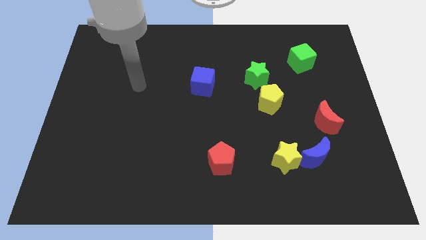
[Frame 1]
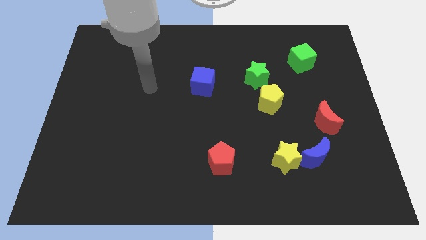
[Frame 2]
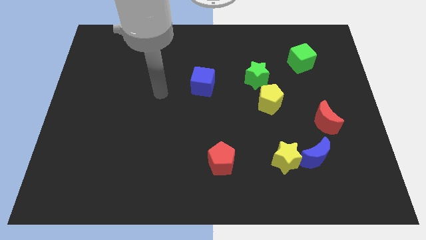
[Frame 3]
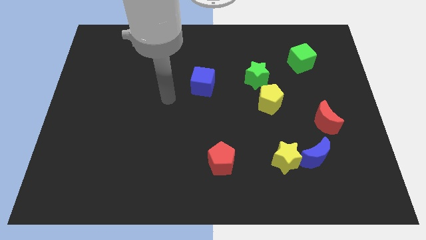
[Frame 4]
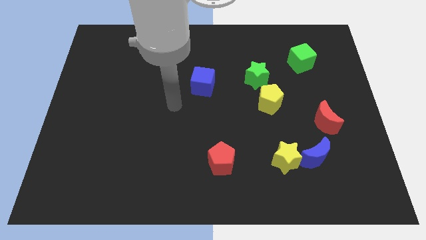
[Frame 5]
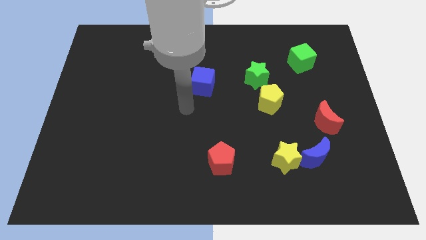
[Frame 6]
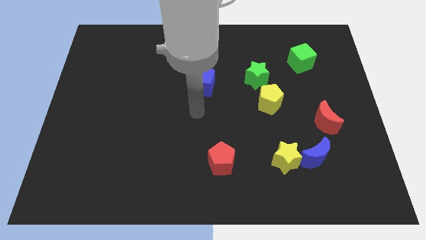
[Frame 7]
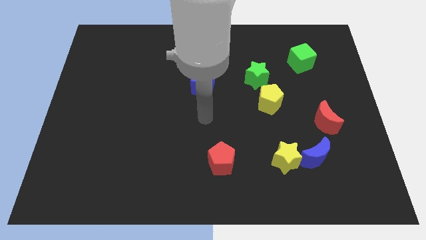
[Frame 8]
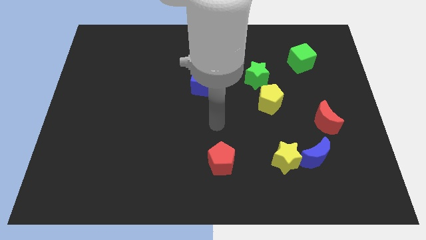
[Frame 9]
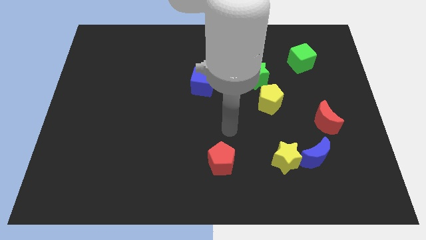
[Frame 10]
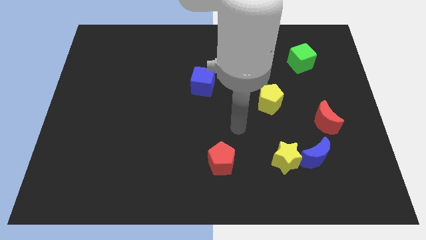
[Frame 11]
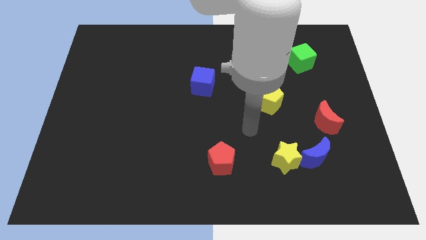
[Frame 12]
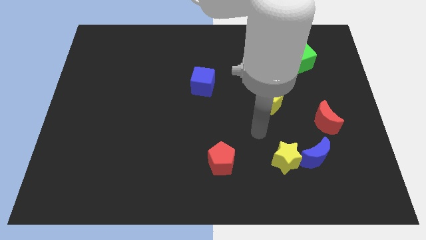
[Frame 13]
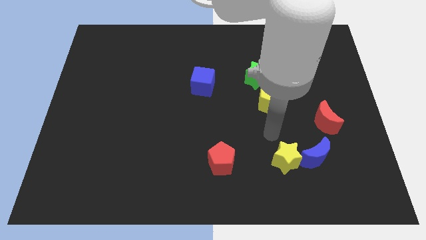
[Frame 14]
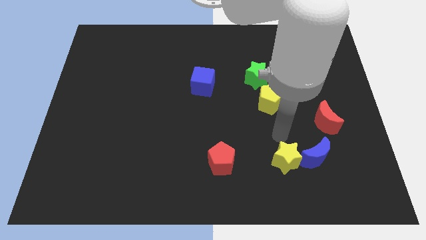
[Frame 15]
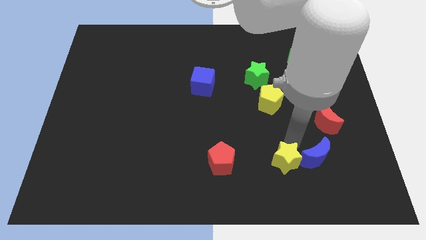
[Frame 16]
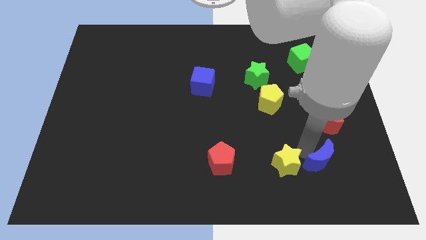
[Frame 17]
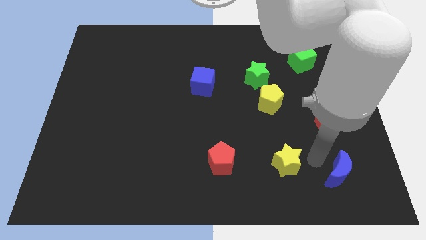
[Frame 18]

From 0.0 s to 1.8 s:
move the yellow star away from the blue moon

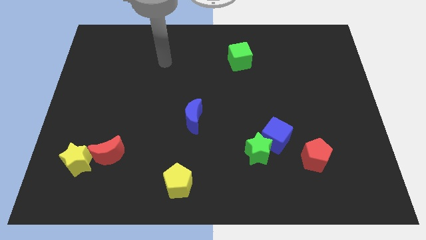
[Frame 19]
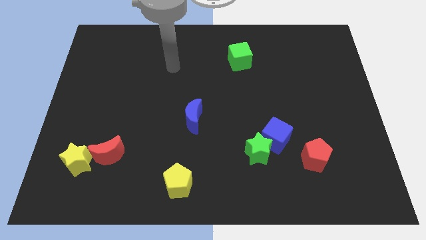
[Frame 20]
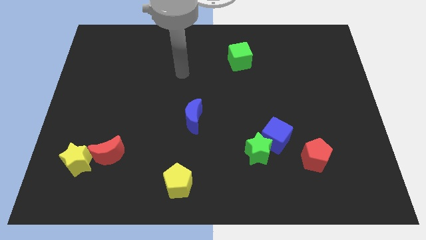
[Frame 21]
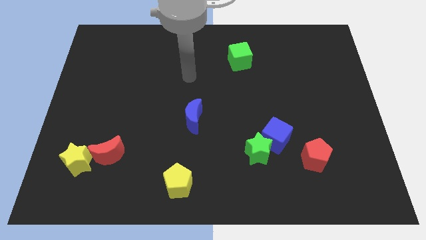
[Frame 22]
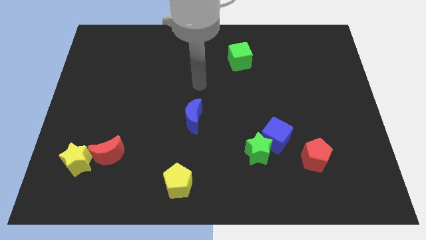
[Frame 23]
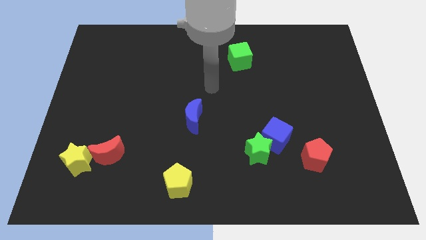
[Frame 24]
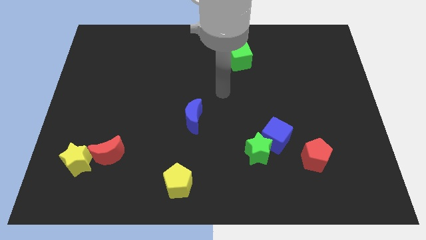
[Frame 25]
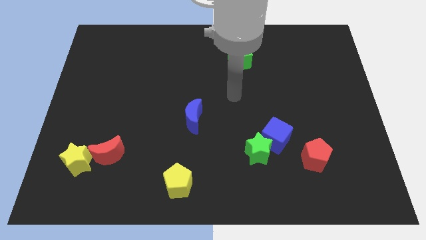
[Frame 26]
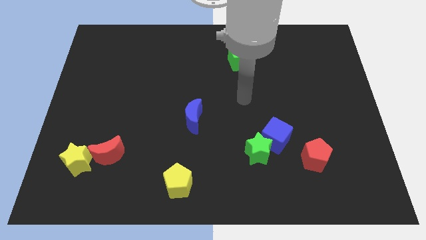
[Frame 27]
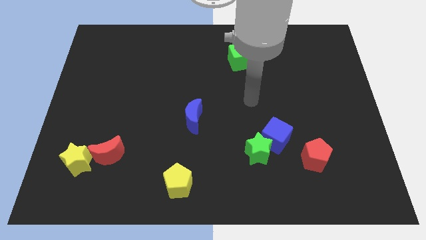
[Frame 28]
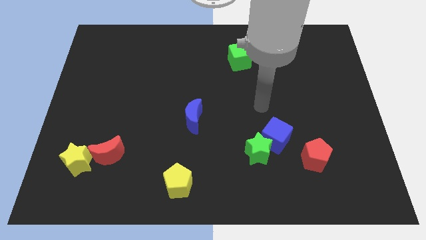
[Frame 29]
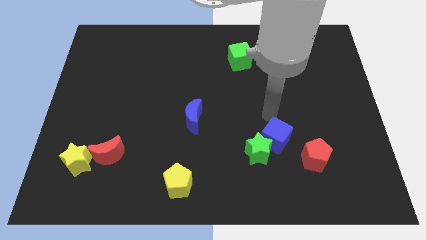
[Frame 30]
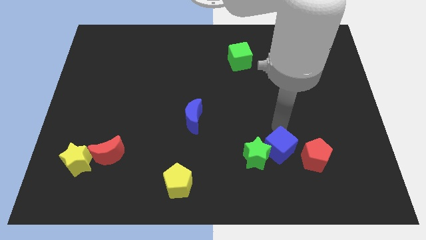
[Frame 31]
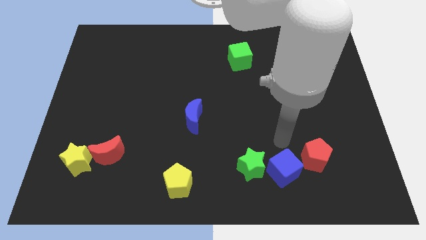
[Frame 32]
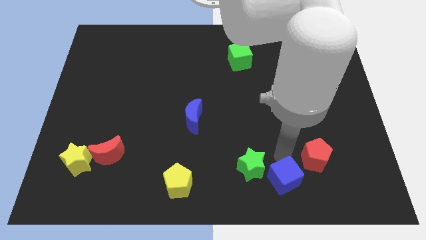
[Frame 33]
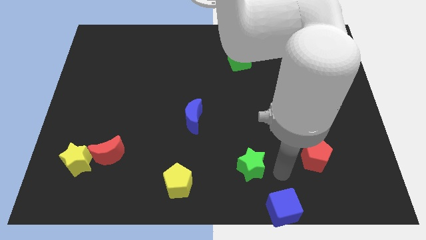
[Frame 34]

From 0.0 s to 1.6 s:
pull the green star apart from the blue cube

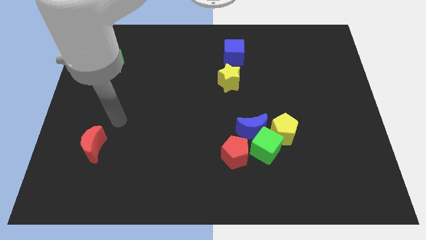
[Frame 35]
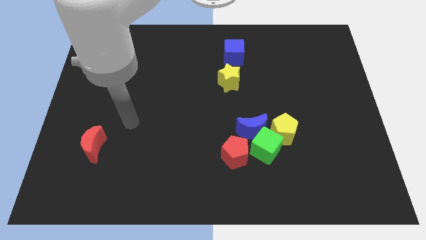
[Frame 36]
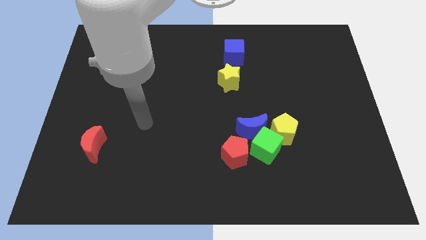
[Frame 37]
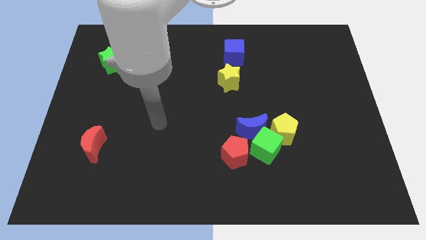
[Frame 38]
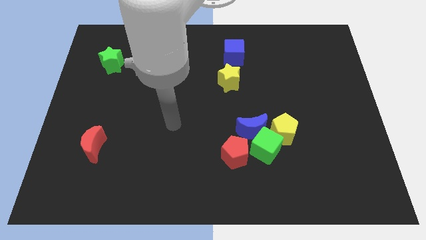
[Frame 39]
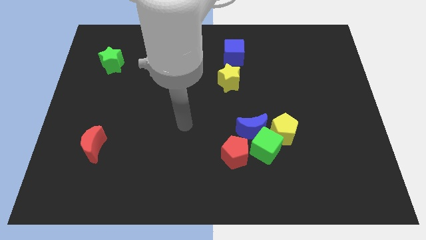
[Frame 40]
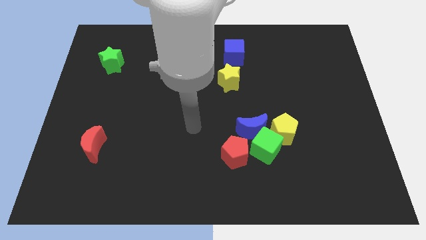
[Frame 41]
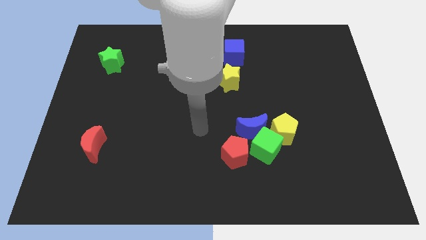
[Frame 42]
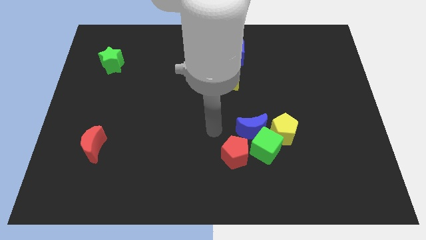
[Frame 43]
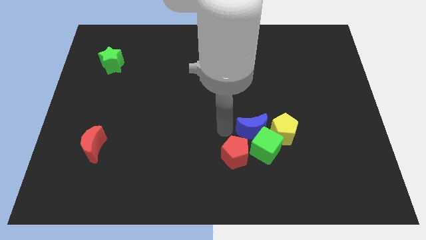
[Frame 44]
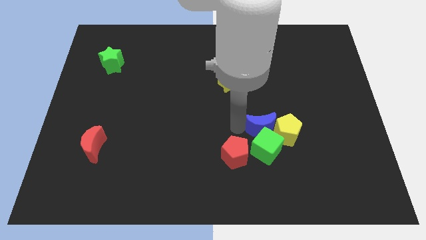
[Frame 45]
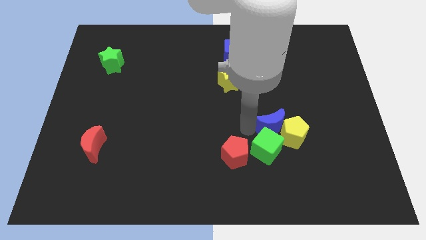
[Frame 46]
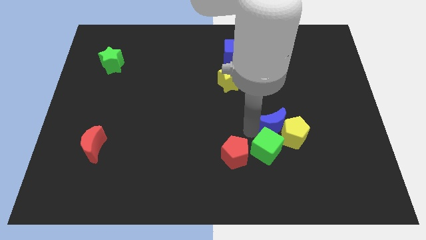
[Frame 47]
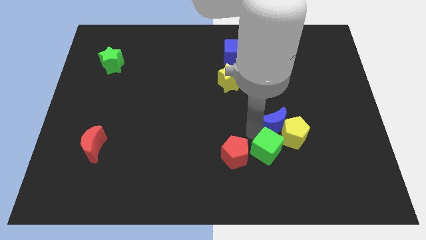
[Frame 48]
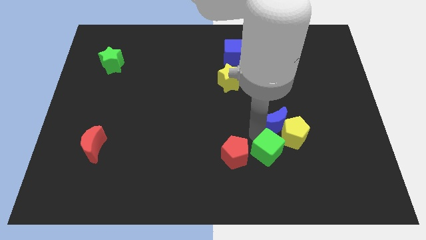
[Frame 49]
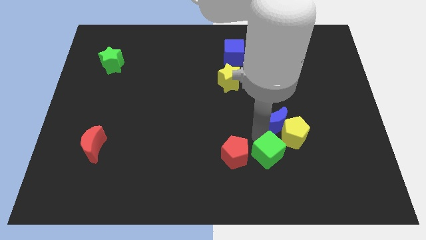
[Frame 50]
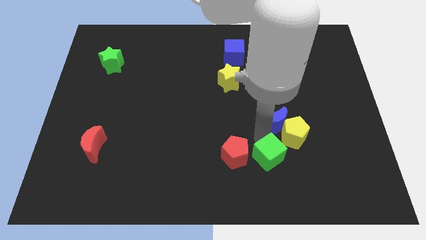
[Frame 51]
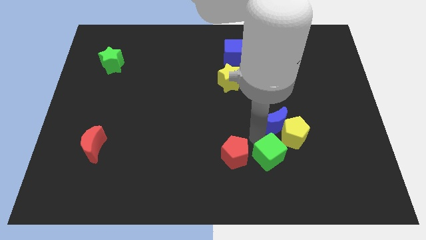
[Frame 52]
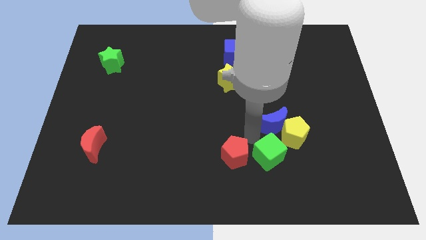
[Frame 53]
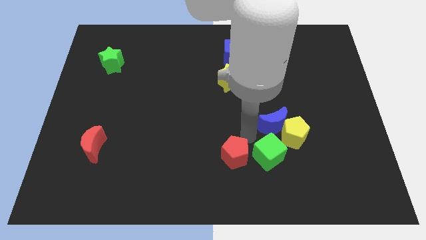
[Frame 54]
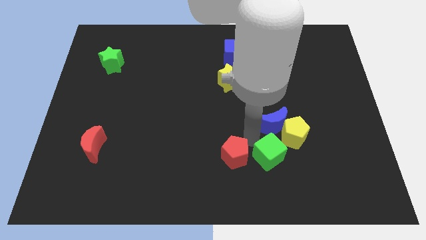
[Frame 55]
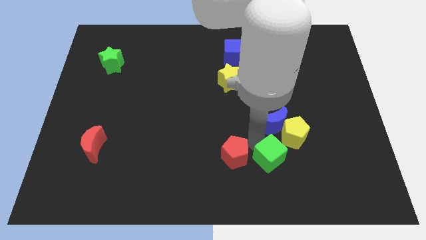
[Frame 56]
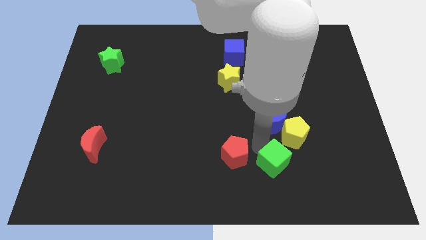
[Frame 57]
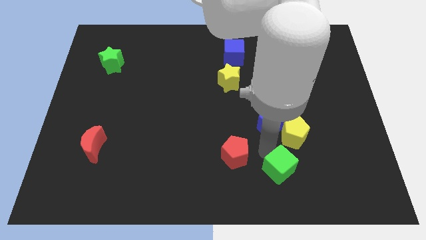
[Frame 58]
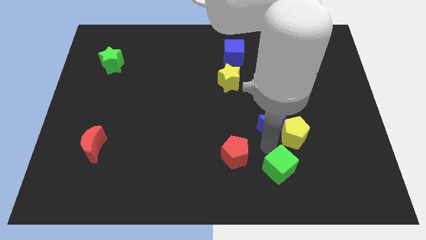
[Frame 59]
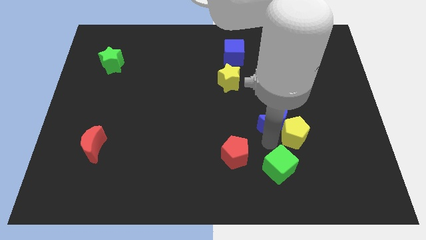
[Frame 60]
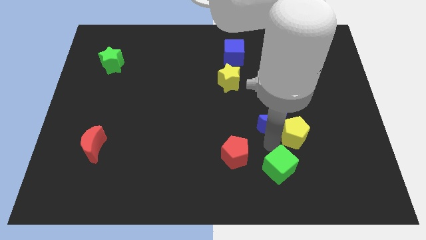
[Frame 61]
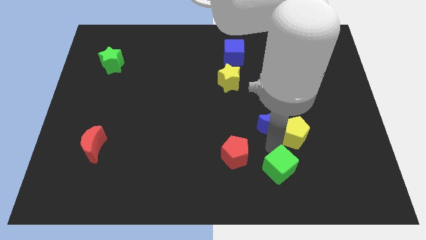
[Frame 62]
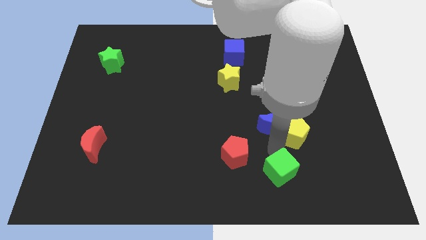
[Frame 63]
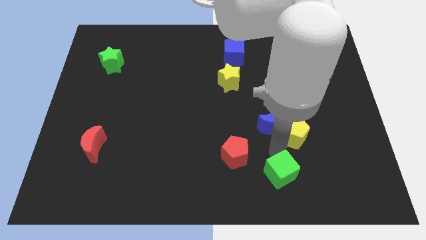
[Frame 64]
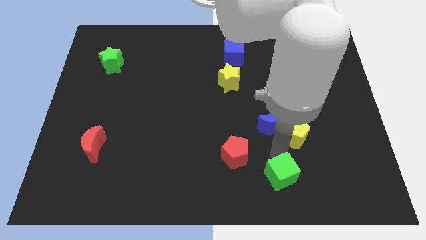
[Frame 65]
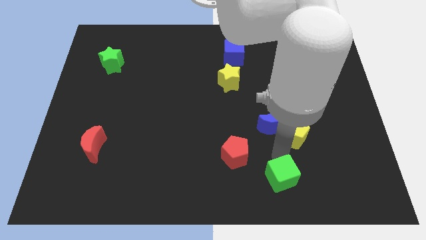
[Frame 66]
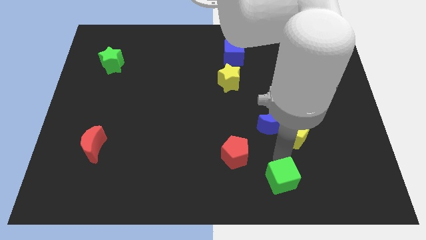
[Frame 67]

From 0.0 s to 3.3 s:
separate the green cube from the blue moon, yellow pentagon, and red pentagon

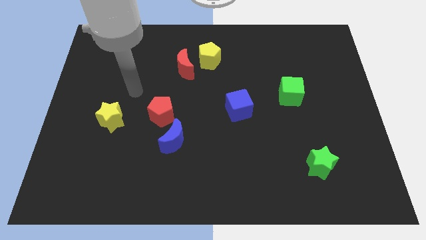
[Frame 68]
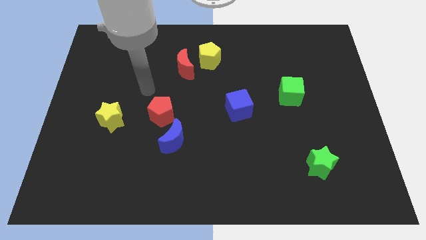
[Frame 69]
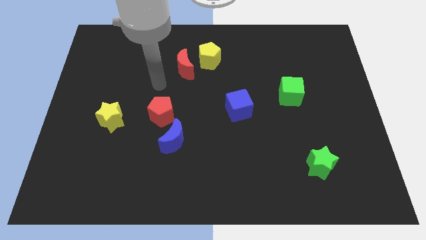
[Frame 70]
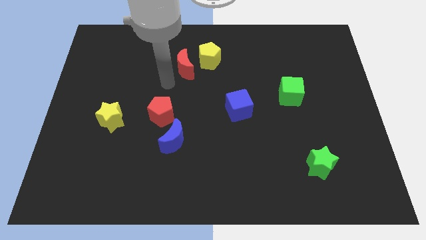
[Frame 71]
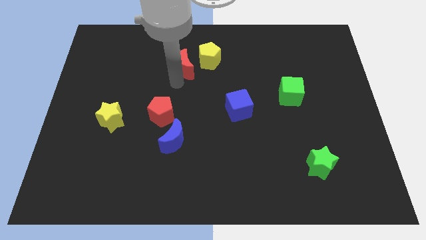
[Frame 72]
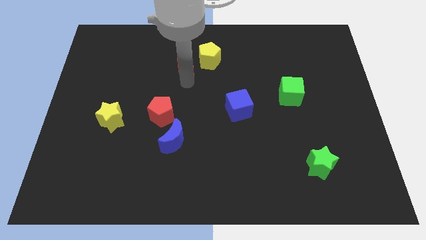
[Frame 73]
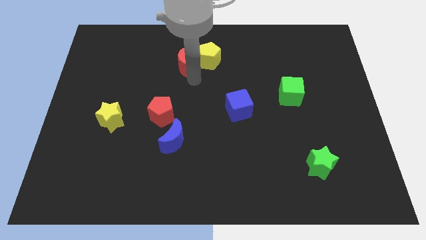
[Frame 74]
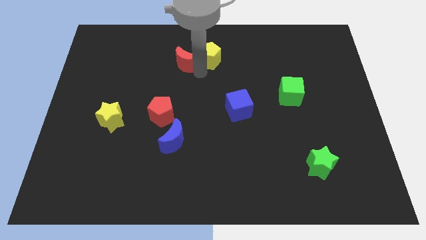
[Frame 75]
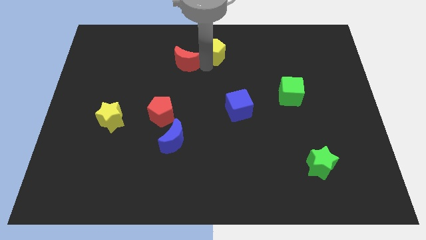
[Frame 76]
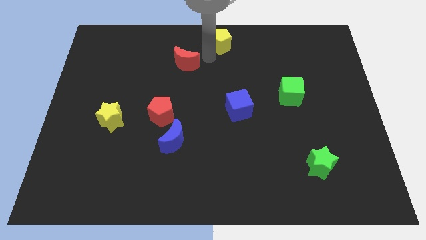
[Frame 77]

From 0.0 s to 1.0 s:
move the red moon away from the yellow pentagon

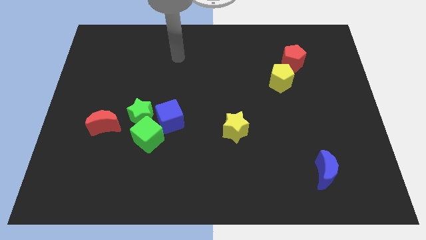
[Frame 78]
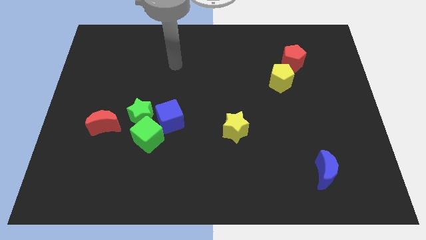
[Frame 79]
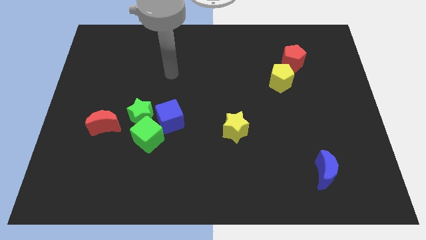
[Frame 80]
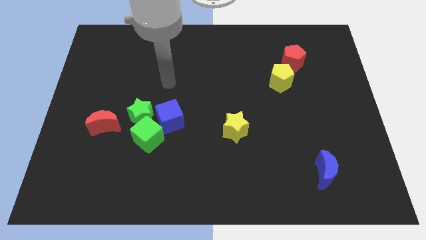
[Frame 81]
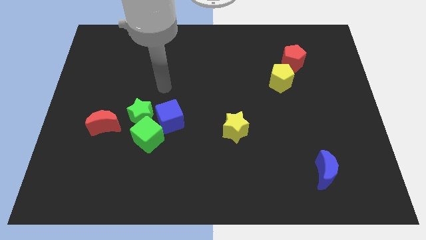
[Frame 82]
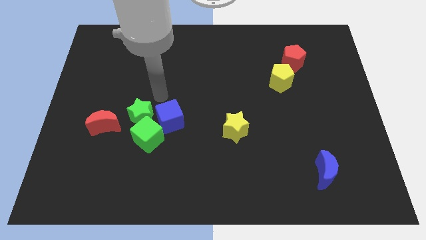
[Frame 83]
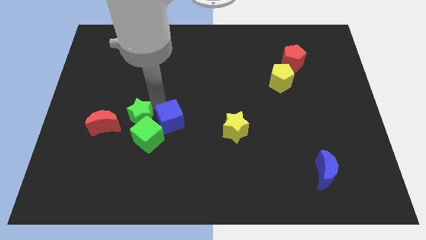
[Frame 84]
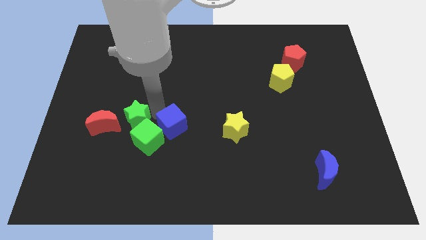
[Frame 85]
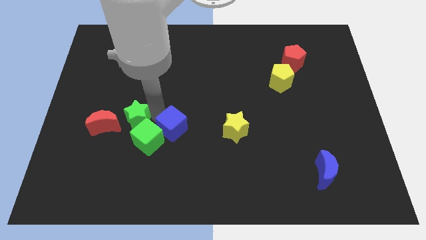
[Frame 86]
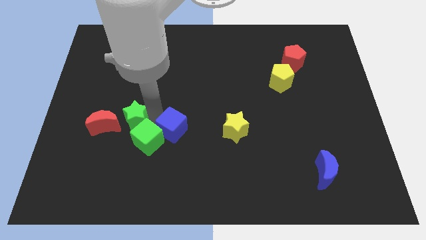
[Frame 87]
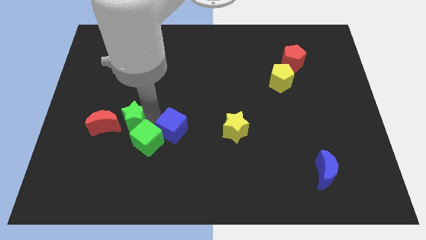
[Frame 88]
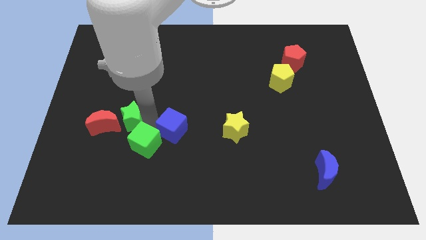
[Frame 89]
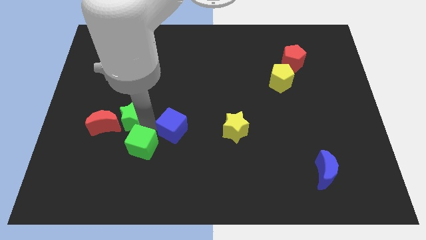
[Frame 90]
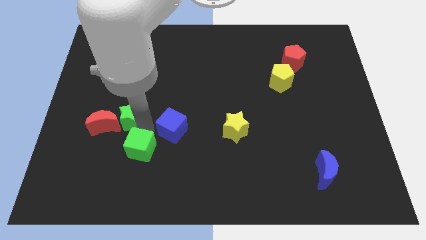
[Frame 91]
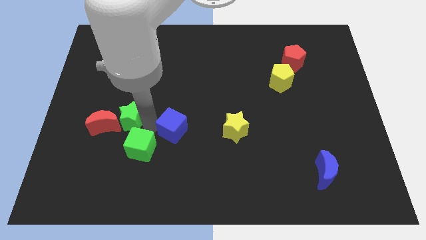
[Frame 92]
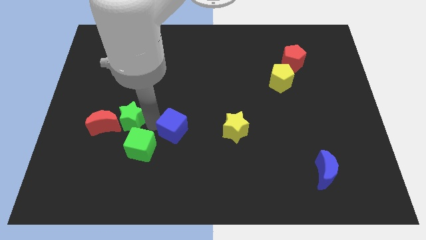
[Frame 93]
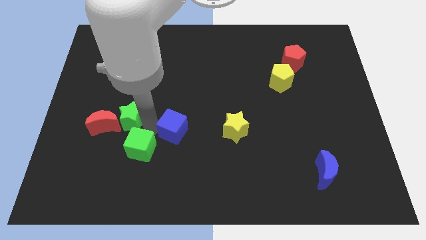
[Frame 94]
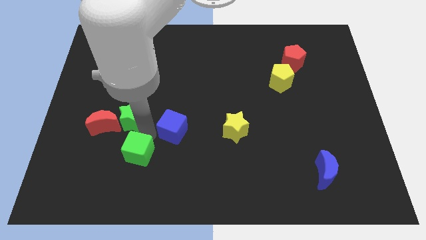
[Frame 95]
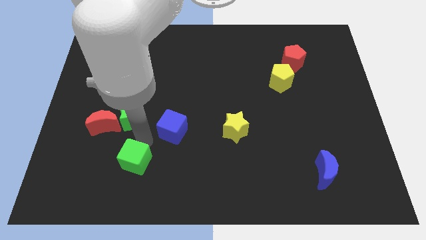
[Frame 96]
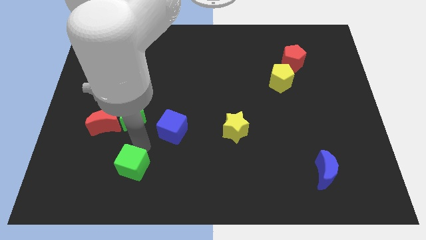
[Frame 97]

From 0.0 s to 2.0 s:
move the green cube away from the green star and blue cube
